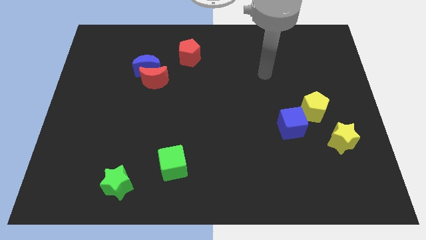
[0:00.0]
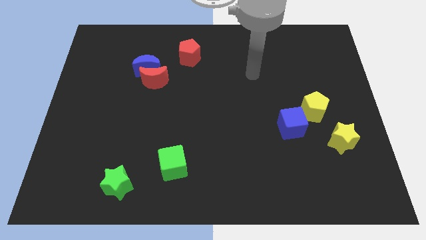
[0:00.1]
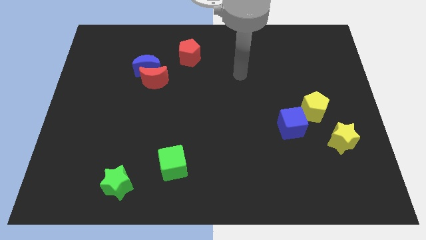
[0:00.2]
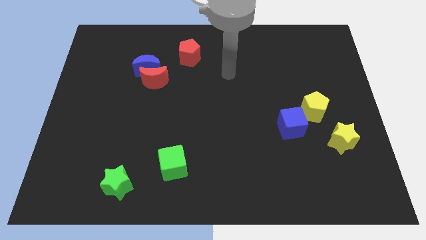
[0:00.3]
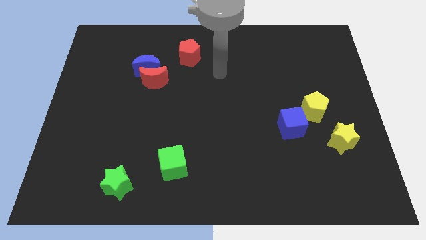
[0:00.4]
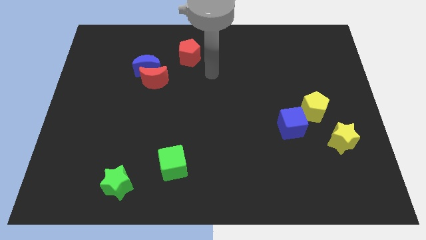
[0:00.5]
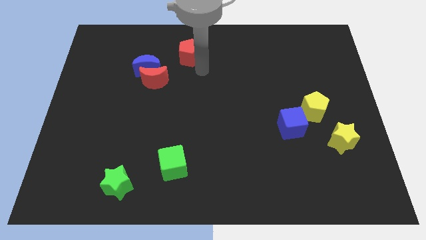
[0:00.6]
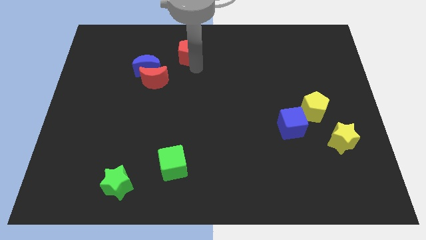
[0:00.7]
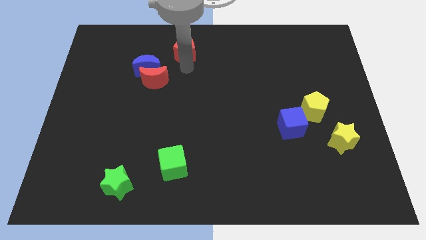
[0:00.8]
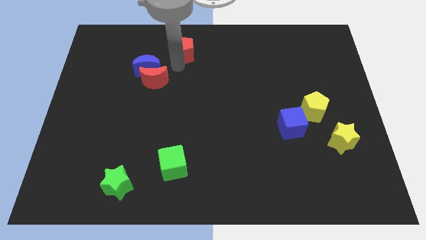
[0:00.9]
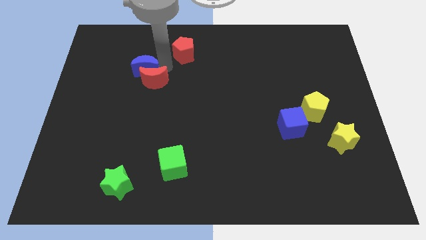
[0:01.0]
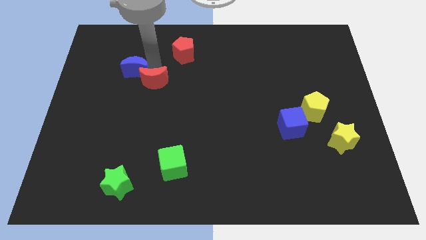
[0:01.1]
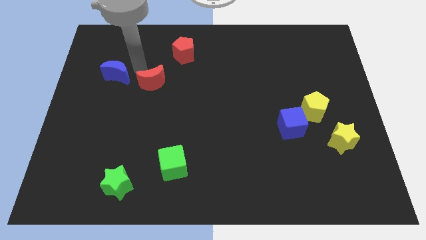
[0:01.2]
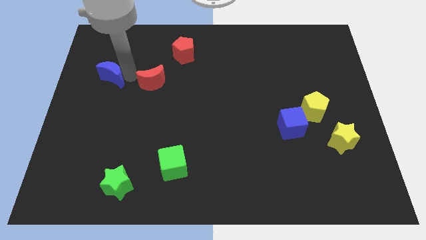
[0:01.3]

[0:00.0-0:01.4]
separate the red moon from the blue moon

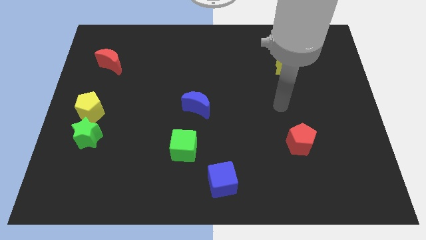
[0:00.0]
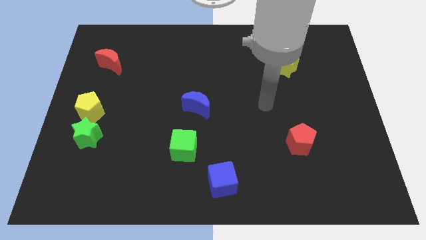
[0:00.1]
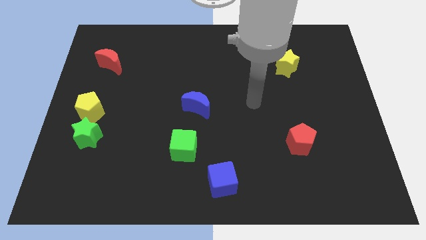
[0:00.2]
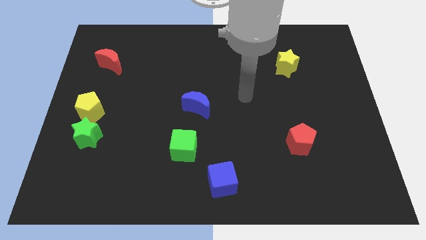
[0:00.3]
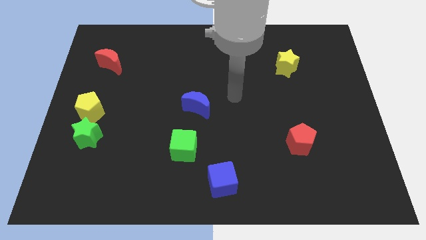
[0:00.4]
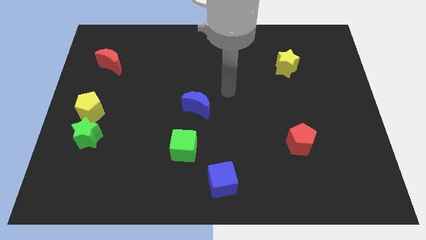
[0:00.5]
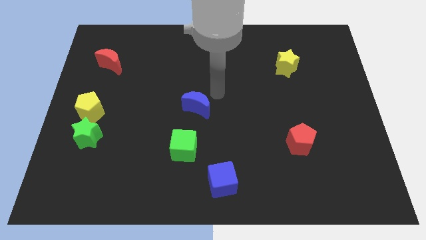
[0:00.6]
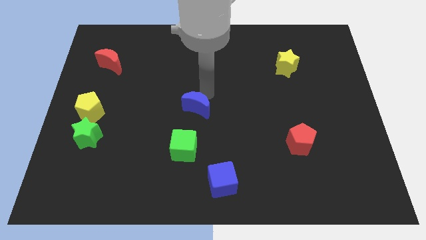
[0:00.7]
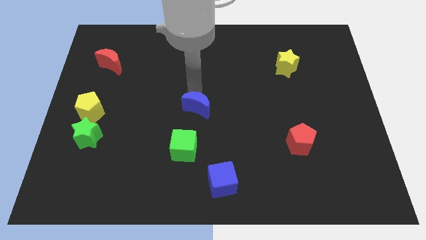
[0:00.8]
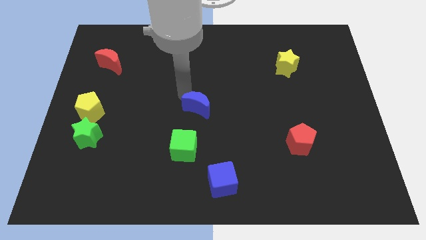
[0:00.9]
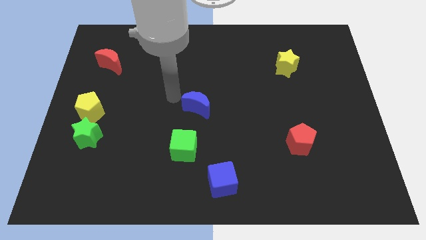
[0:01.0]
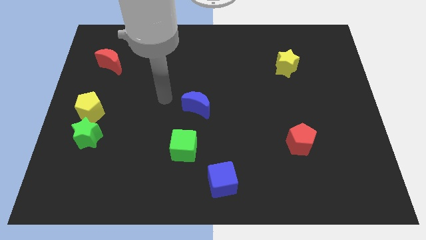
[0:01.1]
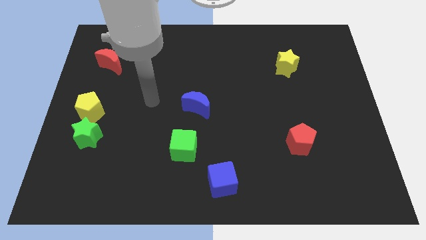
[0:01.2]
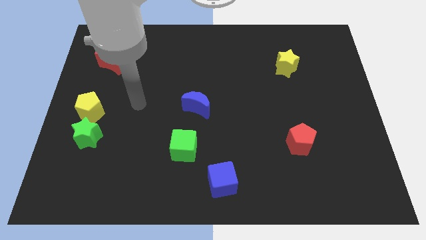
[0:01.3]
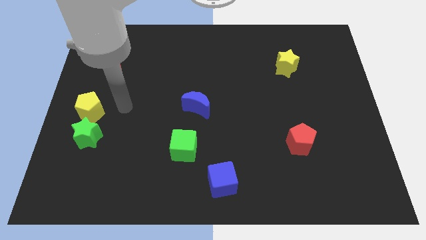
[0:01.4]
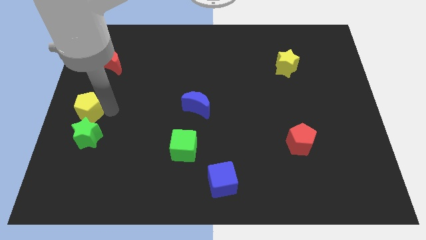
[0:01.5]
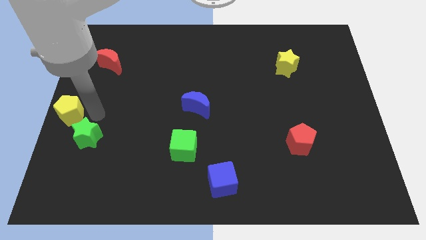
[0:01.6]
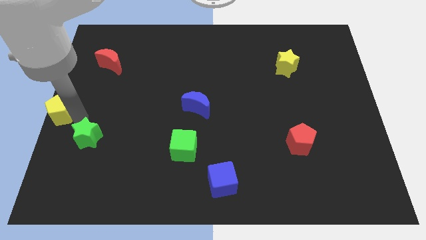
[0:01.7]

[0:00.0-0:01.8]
pull the green star apart from the yellow pentagon

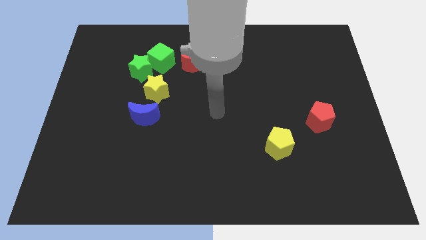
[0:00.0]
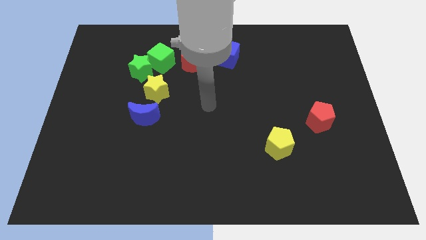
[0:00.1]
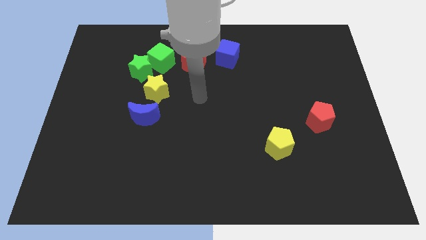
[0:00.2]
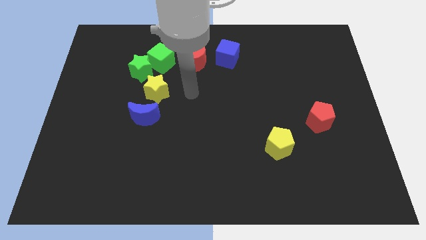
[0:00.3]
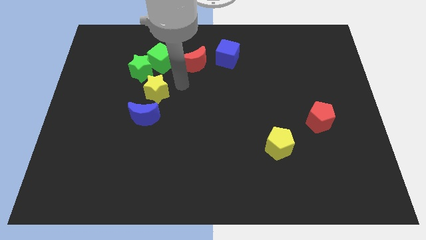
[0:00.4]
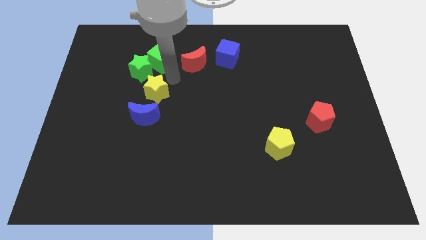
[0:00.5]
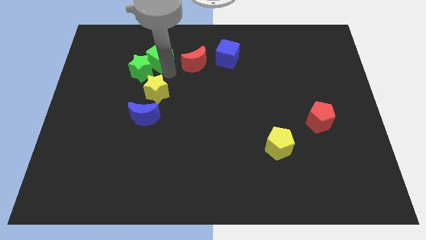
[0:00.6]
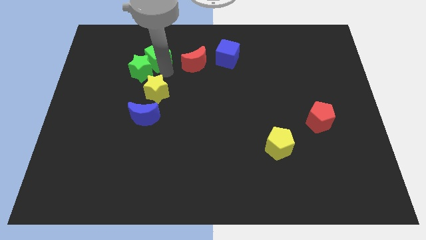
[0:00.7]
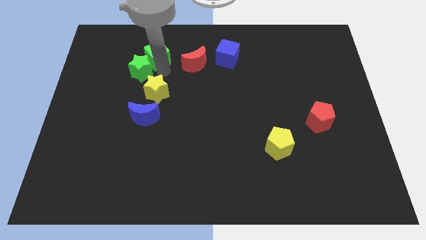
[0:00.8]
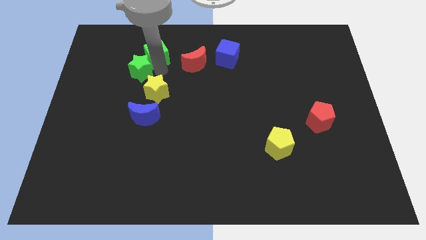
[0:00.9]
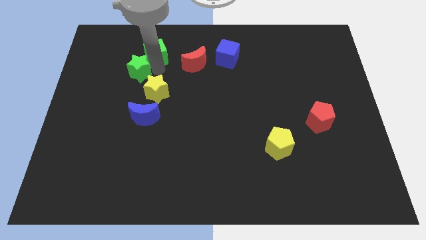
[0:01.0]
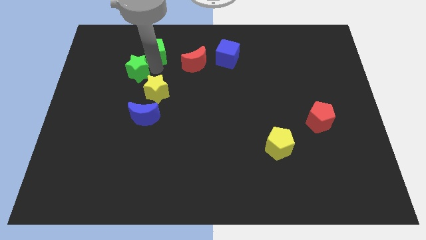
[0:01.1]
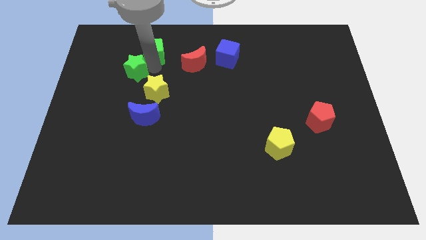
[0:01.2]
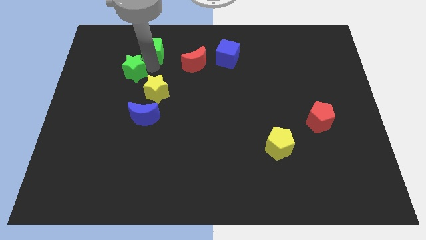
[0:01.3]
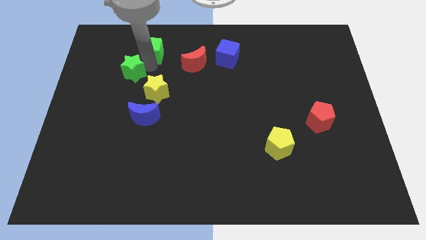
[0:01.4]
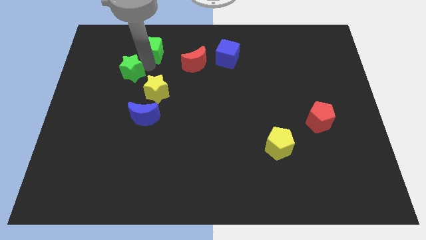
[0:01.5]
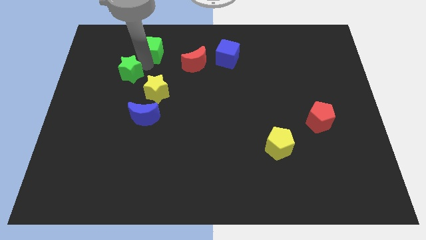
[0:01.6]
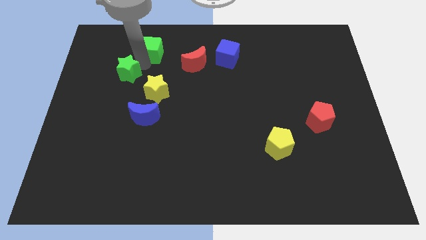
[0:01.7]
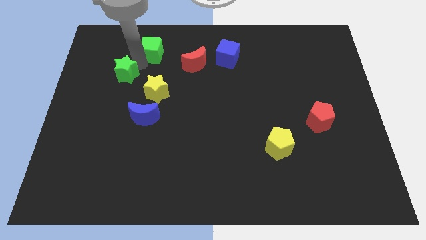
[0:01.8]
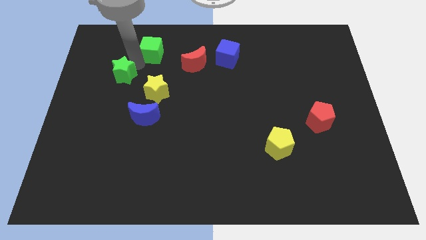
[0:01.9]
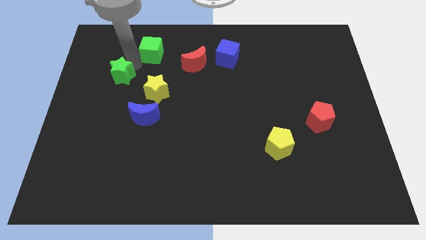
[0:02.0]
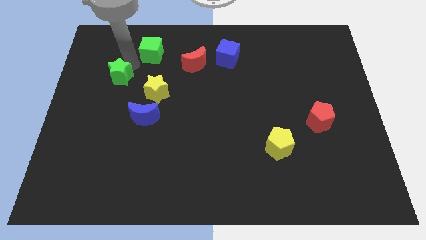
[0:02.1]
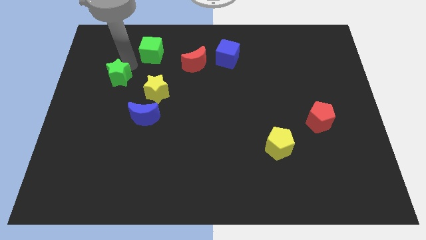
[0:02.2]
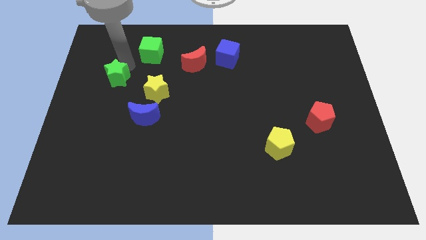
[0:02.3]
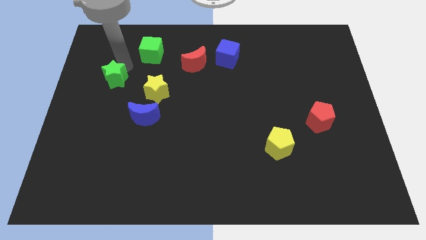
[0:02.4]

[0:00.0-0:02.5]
separate the green star from the green cube and yellow star

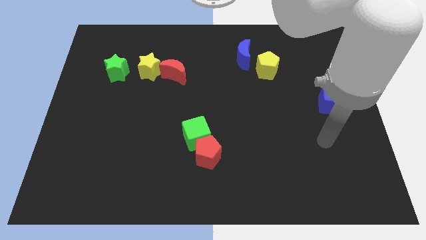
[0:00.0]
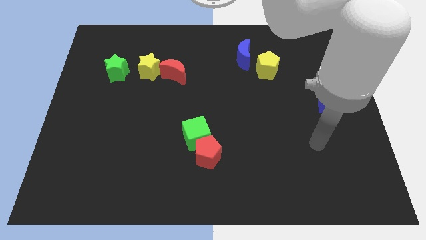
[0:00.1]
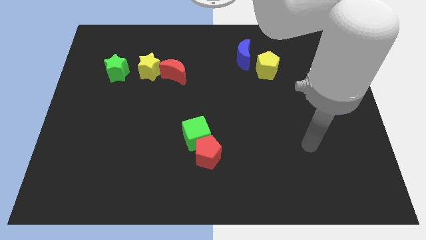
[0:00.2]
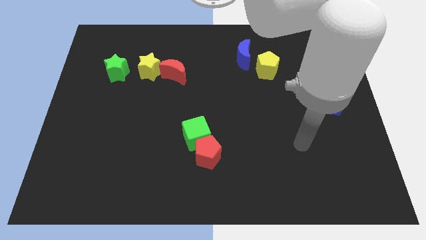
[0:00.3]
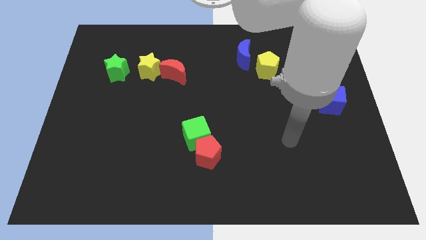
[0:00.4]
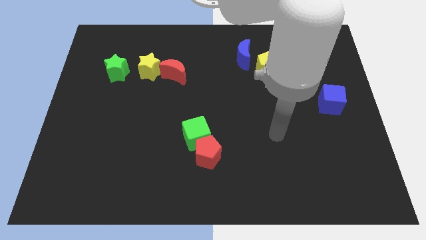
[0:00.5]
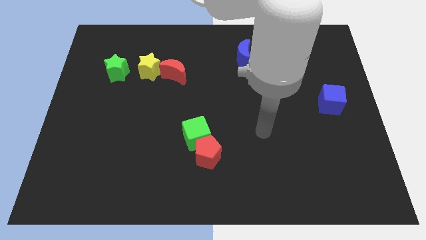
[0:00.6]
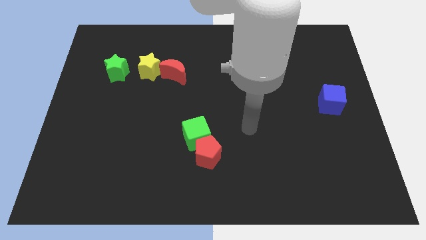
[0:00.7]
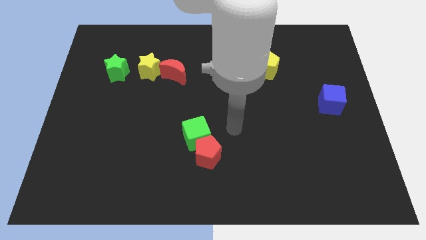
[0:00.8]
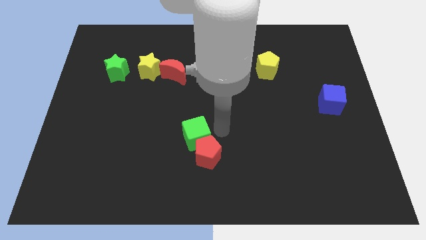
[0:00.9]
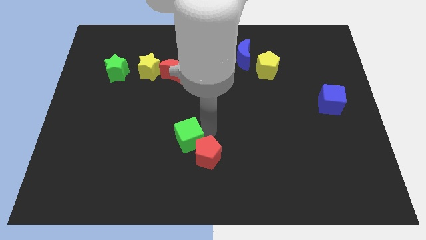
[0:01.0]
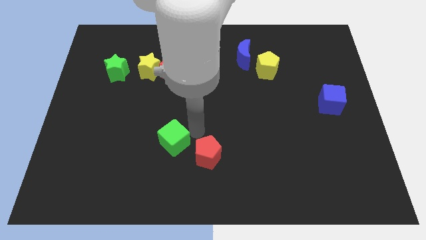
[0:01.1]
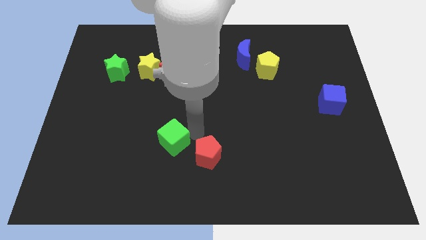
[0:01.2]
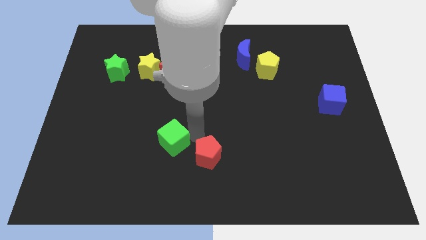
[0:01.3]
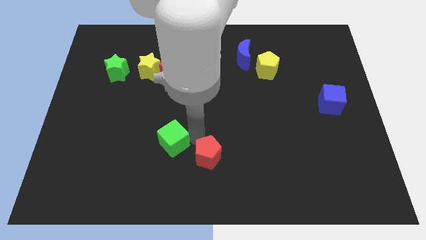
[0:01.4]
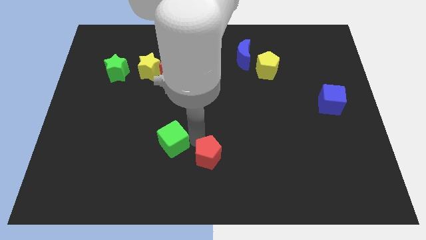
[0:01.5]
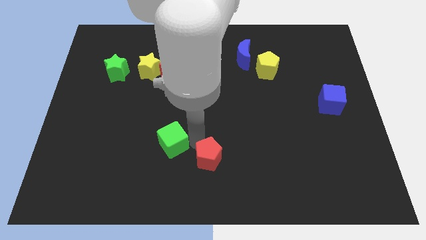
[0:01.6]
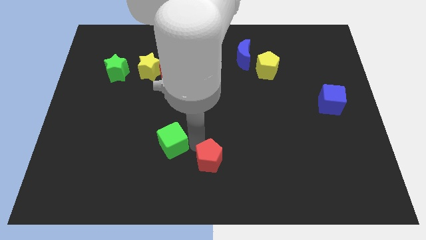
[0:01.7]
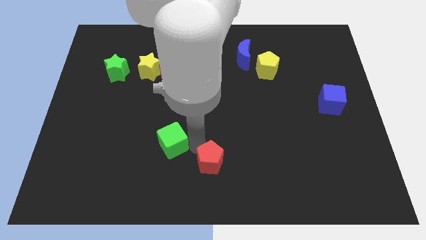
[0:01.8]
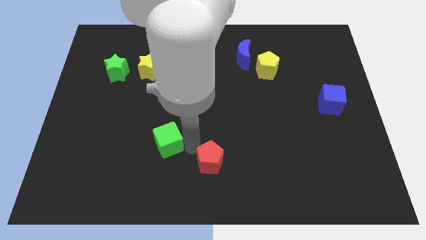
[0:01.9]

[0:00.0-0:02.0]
separate the red pentagon from the green cube

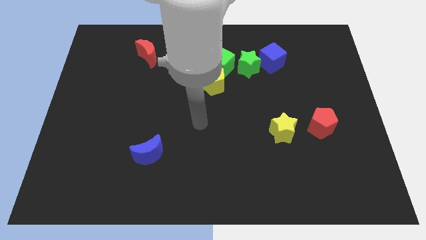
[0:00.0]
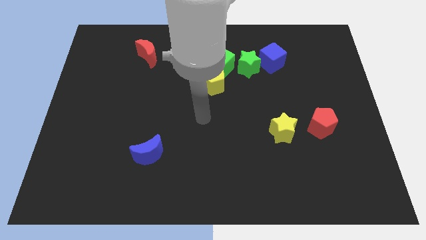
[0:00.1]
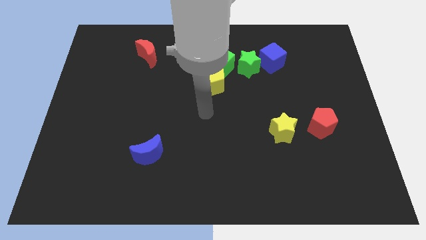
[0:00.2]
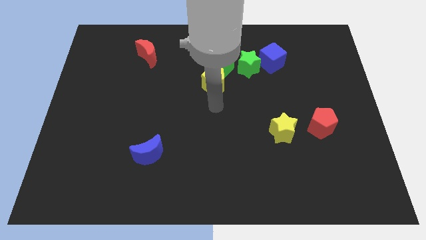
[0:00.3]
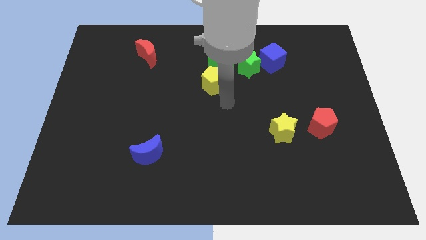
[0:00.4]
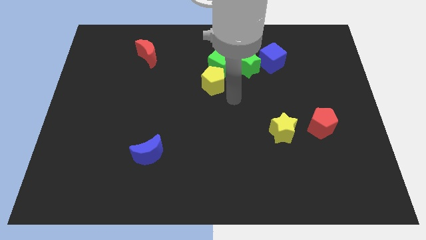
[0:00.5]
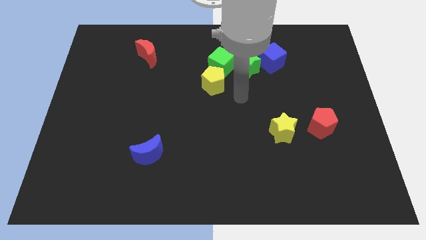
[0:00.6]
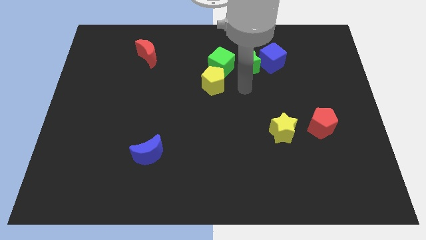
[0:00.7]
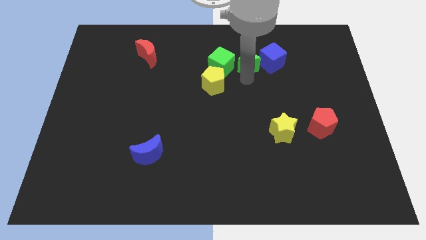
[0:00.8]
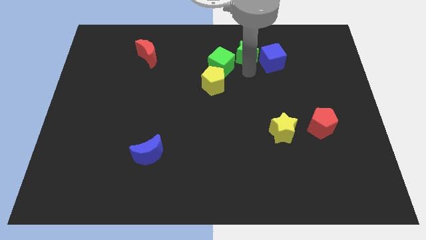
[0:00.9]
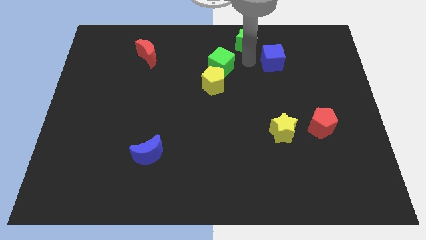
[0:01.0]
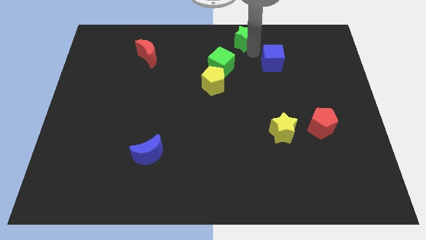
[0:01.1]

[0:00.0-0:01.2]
separate the blue cube from the green star

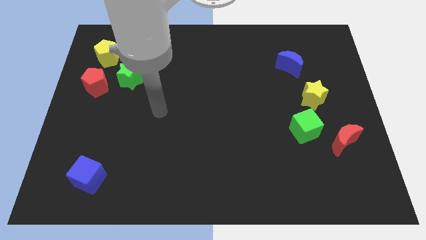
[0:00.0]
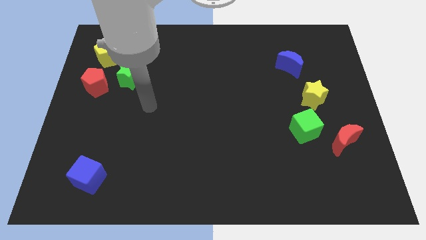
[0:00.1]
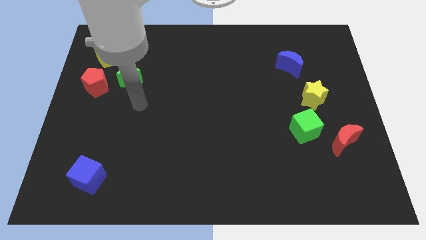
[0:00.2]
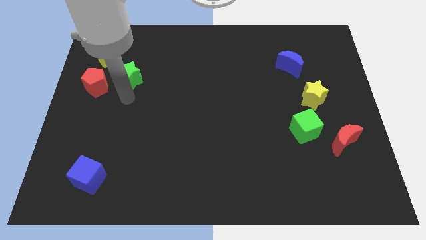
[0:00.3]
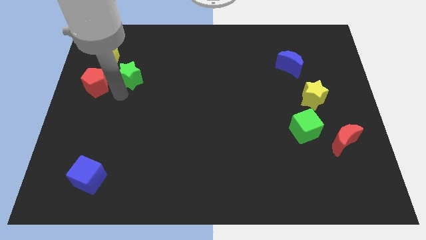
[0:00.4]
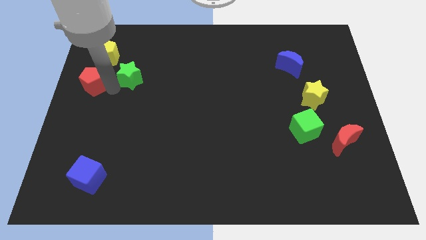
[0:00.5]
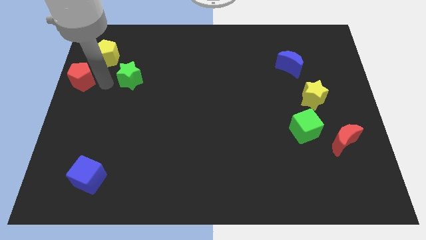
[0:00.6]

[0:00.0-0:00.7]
separate the green star from the red pentagon
